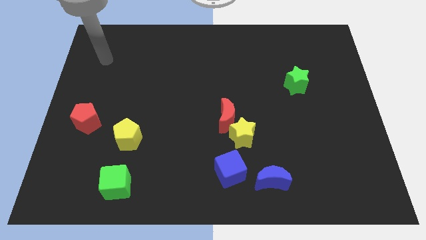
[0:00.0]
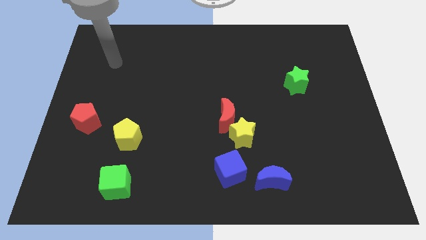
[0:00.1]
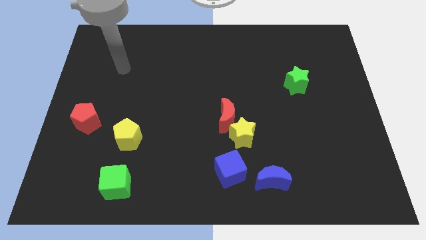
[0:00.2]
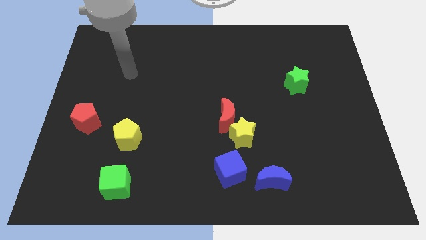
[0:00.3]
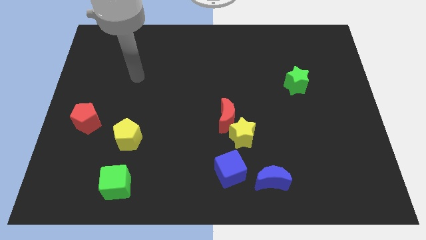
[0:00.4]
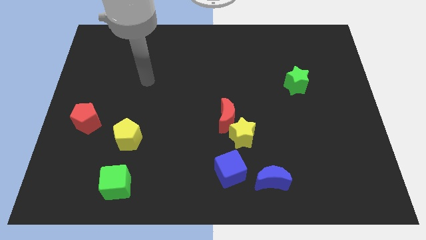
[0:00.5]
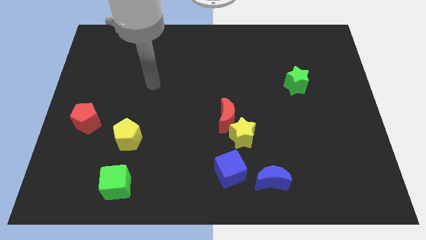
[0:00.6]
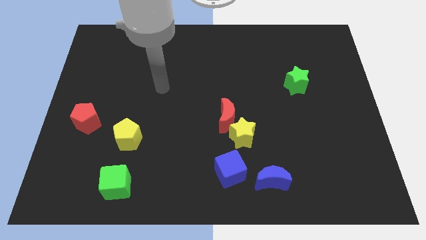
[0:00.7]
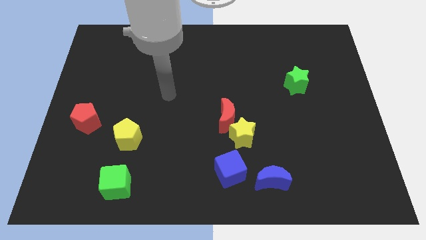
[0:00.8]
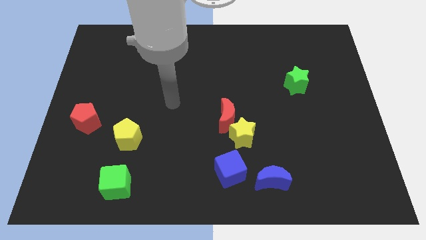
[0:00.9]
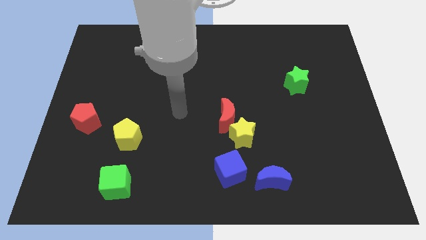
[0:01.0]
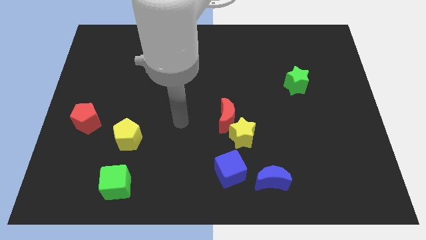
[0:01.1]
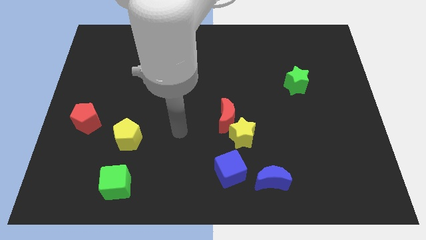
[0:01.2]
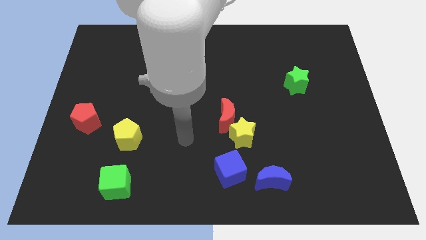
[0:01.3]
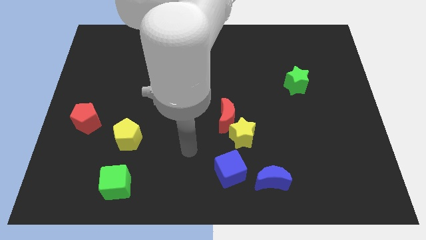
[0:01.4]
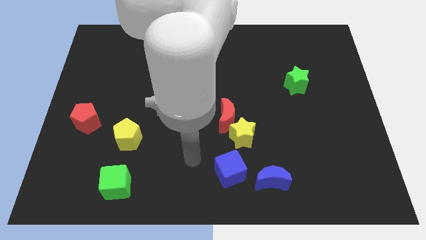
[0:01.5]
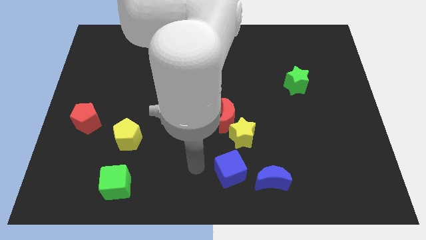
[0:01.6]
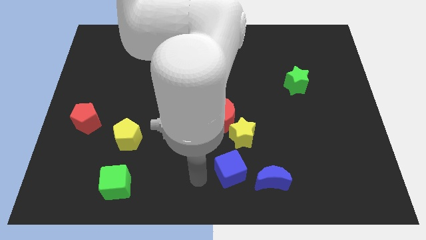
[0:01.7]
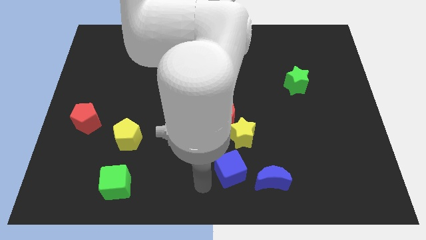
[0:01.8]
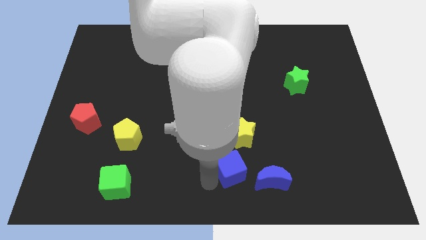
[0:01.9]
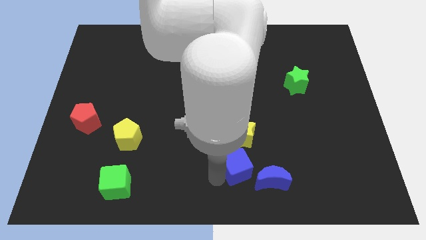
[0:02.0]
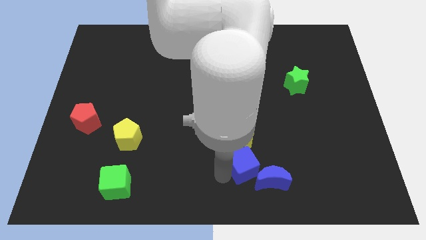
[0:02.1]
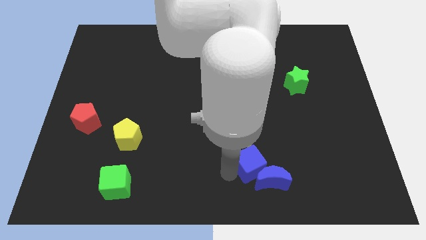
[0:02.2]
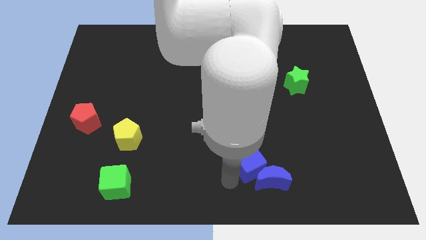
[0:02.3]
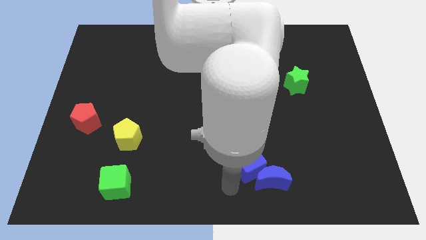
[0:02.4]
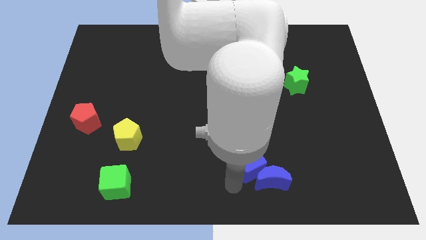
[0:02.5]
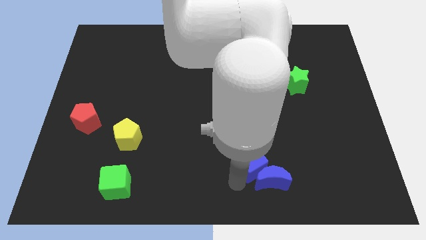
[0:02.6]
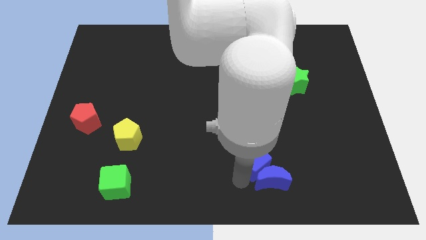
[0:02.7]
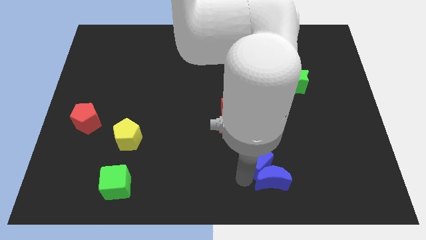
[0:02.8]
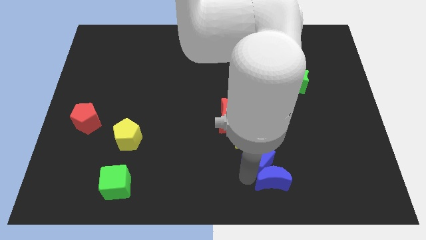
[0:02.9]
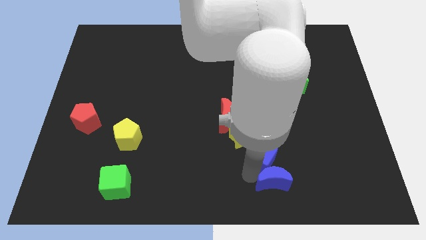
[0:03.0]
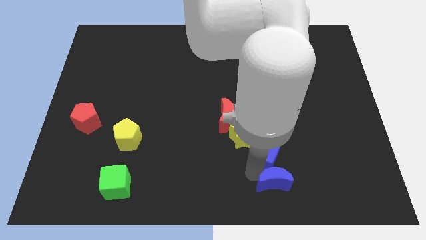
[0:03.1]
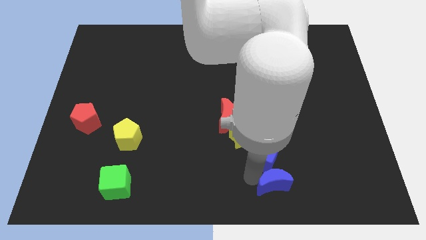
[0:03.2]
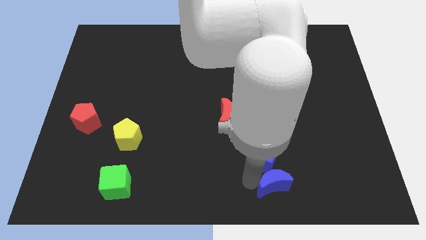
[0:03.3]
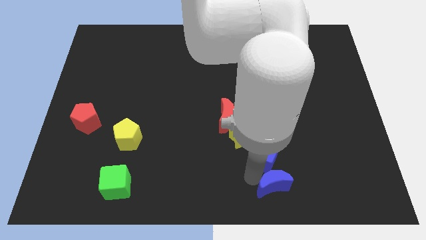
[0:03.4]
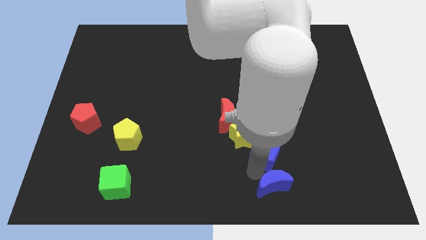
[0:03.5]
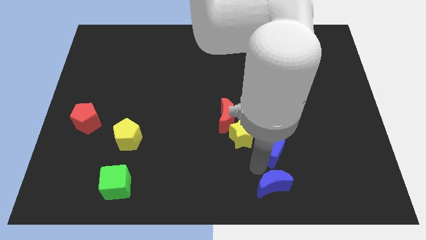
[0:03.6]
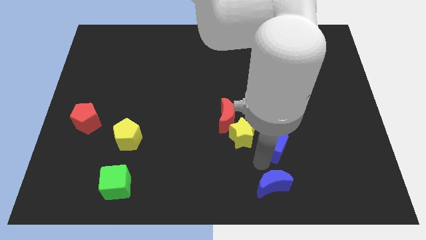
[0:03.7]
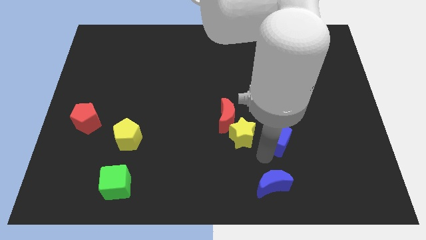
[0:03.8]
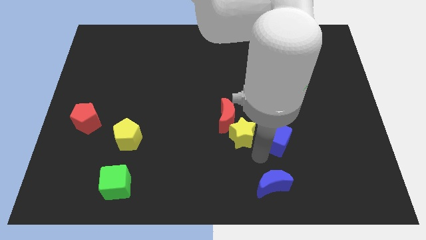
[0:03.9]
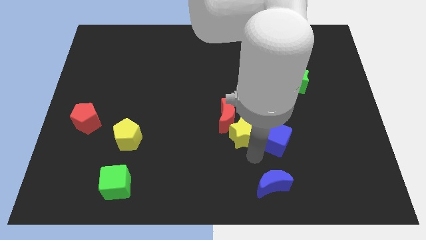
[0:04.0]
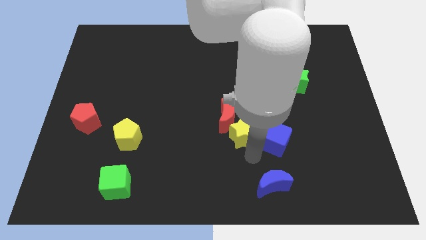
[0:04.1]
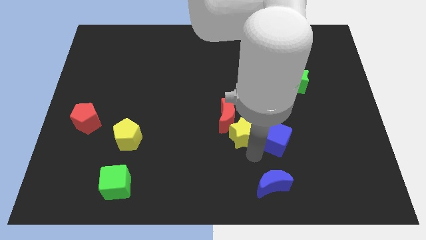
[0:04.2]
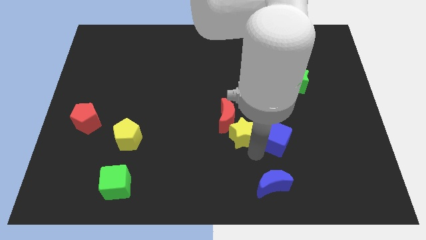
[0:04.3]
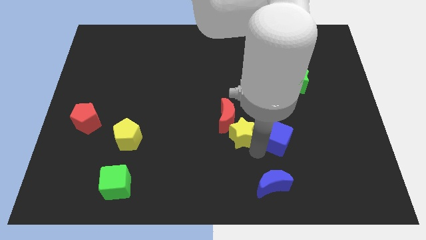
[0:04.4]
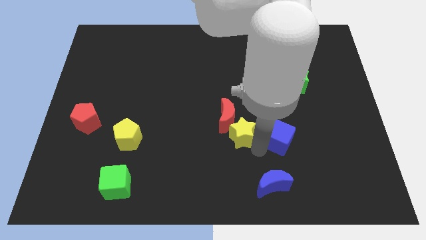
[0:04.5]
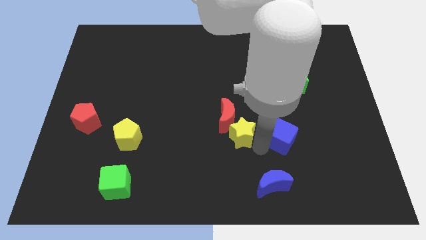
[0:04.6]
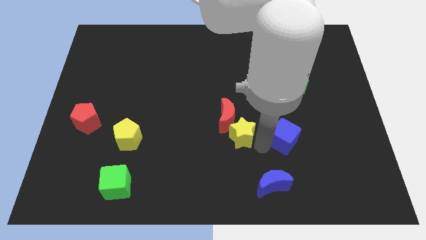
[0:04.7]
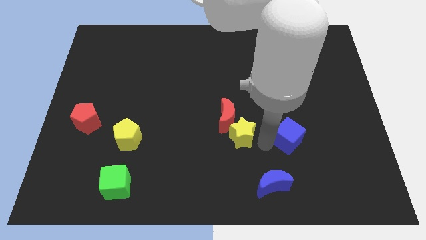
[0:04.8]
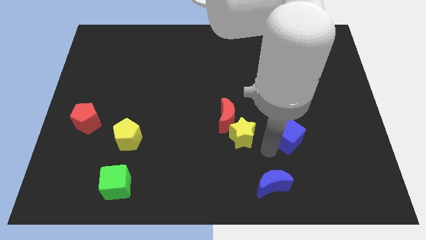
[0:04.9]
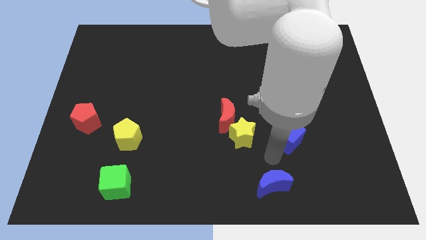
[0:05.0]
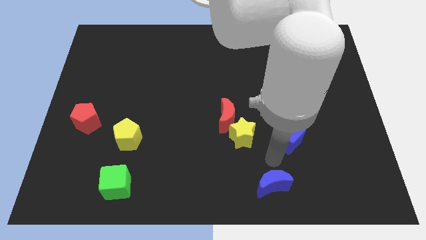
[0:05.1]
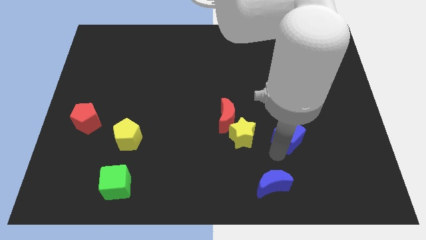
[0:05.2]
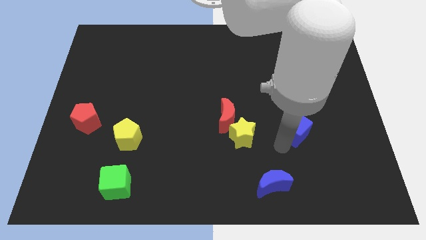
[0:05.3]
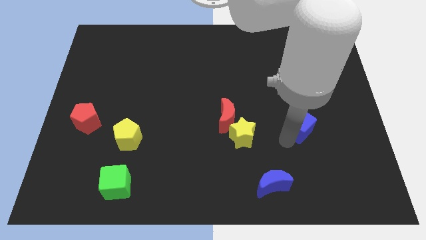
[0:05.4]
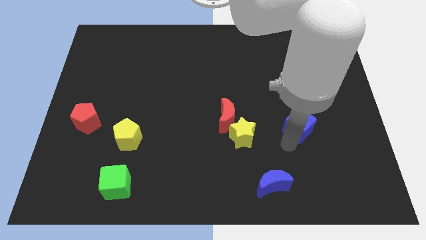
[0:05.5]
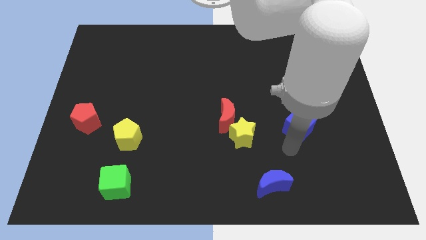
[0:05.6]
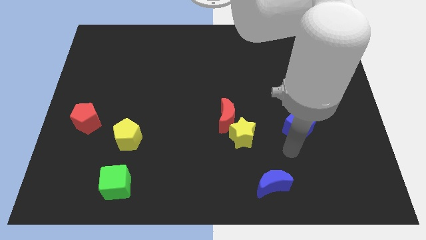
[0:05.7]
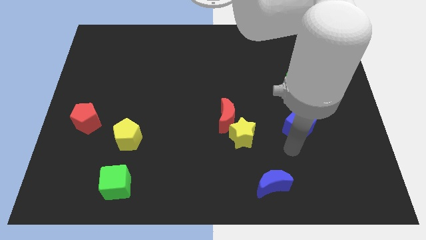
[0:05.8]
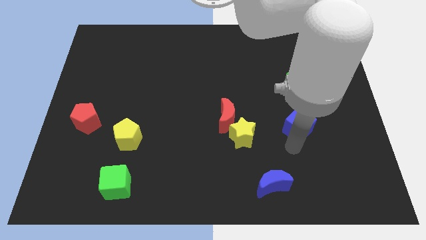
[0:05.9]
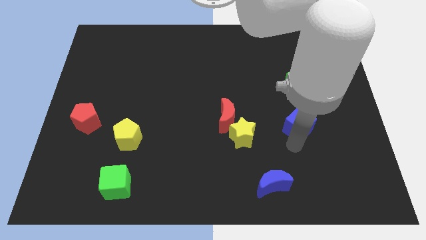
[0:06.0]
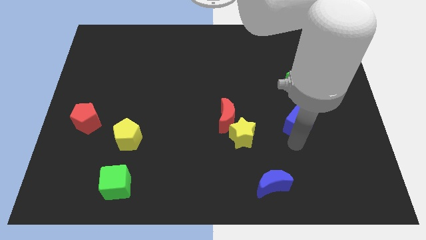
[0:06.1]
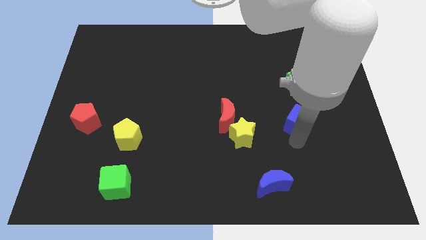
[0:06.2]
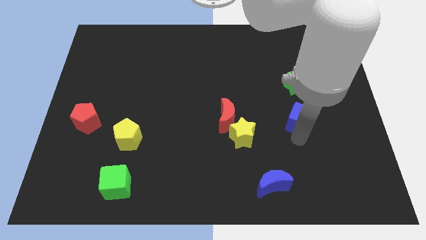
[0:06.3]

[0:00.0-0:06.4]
move the blue cube upwards and to the right

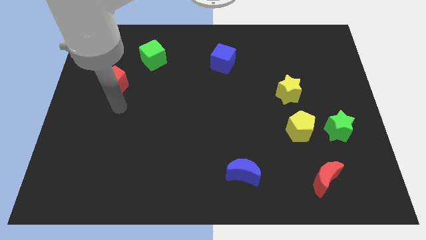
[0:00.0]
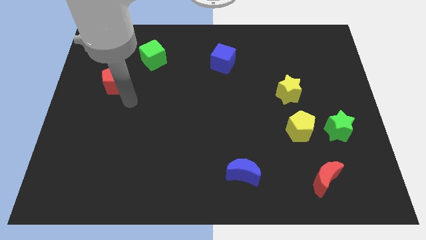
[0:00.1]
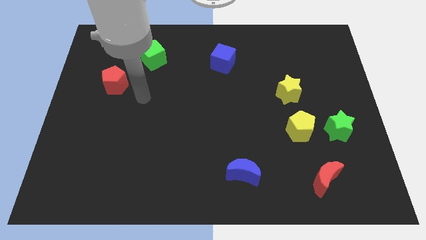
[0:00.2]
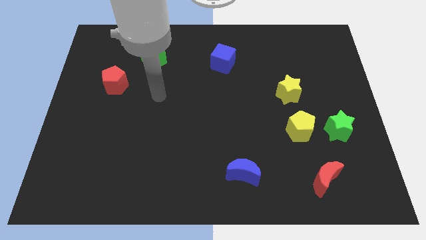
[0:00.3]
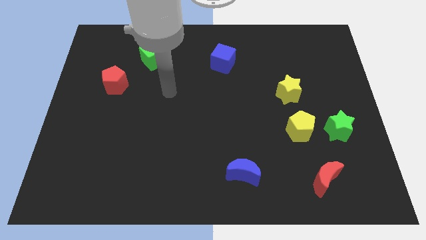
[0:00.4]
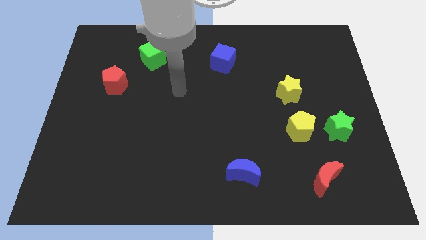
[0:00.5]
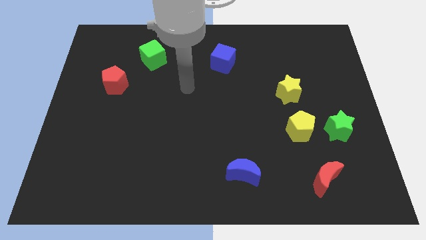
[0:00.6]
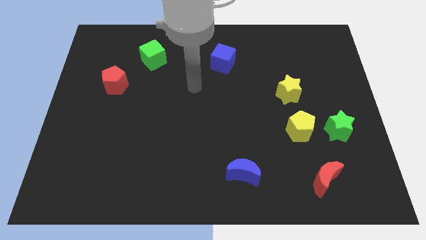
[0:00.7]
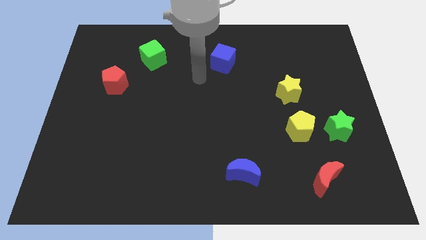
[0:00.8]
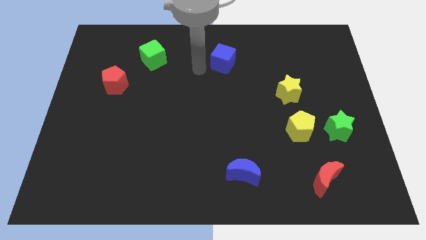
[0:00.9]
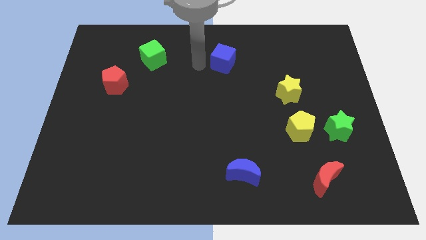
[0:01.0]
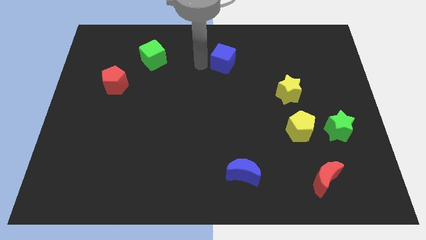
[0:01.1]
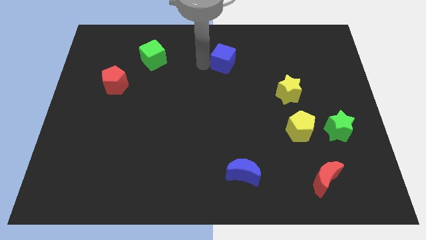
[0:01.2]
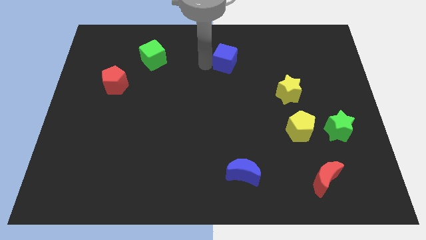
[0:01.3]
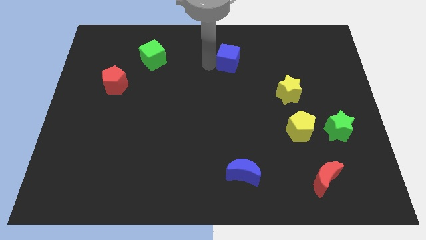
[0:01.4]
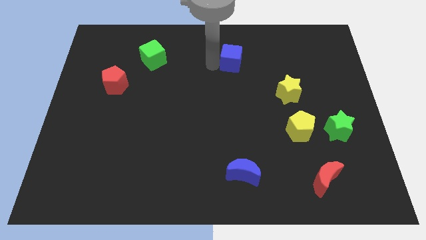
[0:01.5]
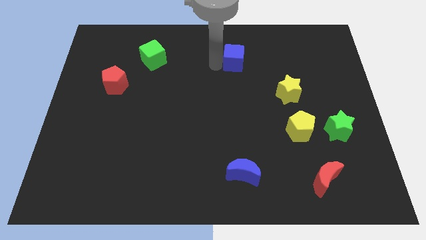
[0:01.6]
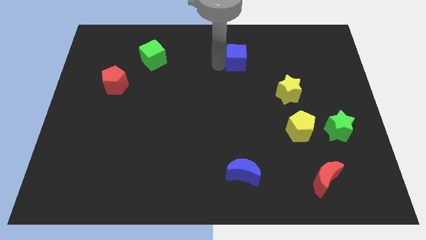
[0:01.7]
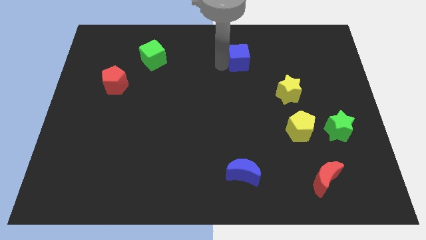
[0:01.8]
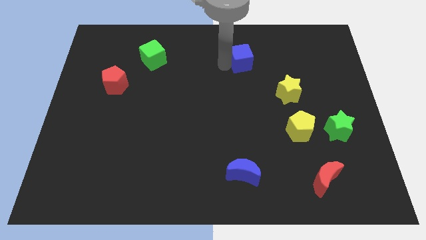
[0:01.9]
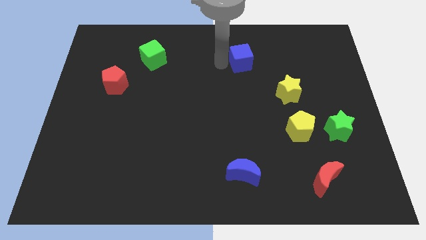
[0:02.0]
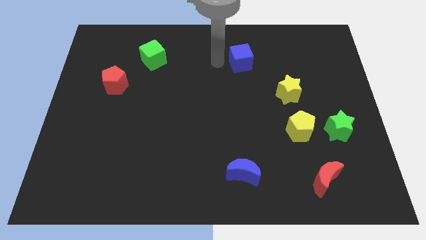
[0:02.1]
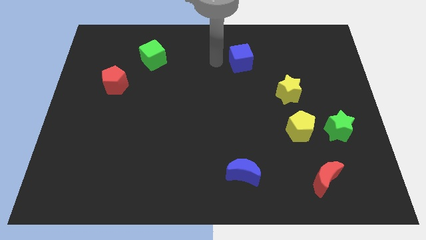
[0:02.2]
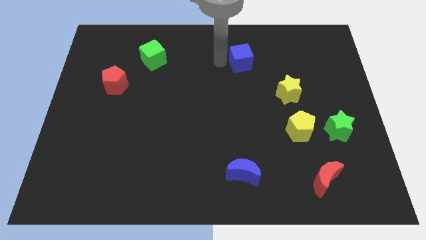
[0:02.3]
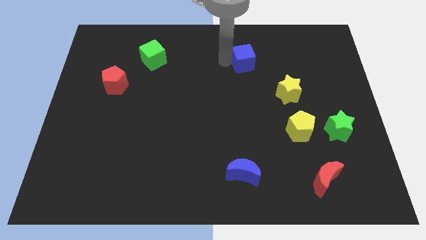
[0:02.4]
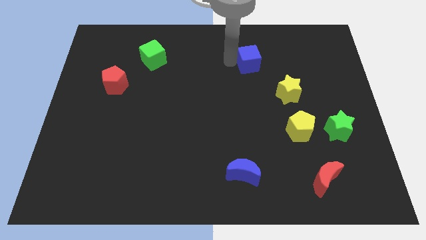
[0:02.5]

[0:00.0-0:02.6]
move the blue cube a little to the right
